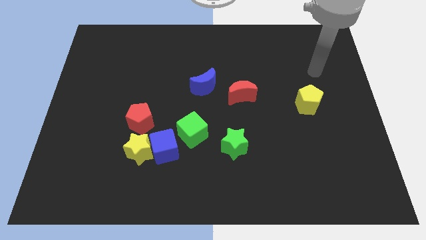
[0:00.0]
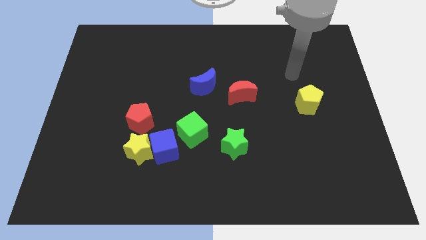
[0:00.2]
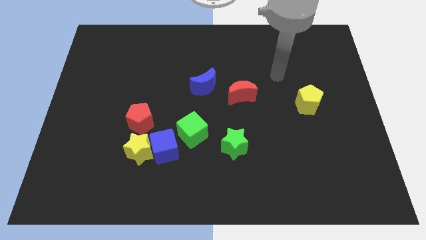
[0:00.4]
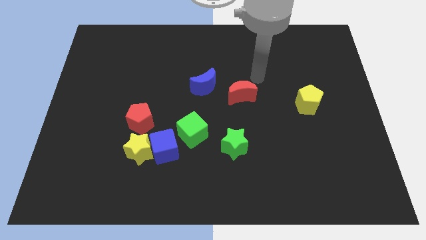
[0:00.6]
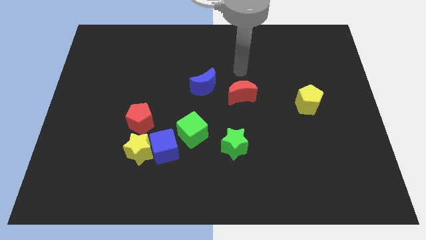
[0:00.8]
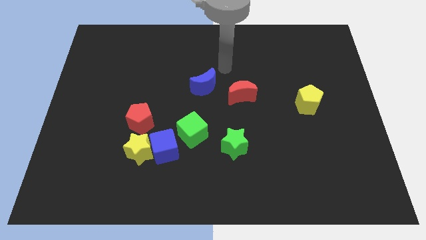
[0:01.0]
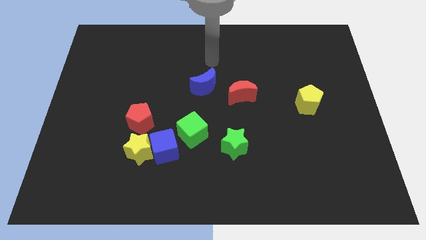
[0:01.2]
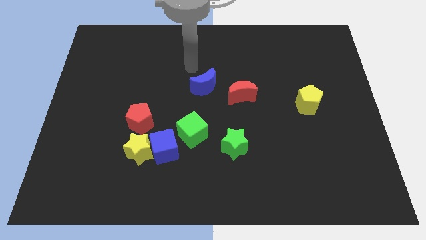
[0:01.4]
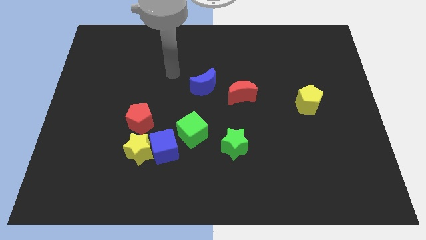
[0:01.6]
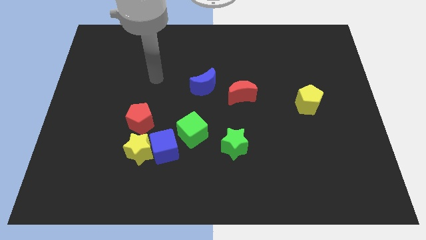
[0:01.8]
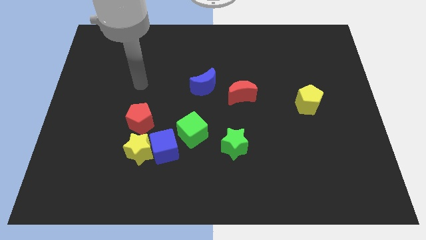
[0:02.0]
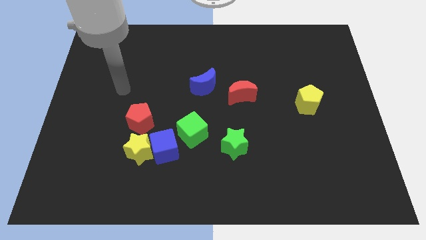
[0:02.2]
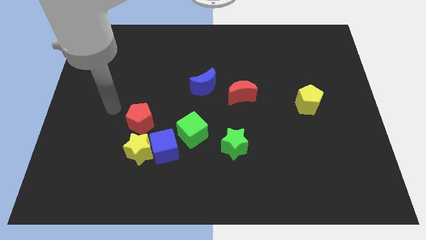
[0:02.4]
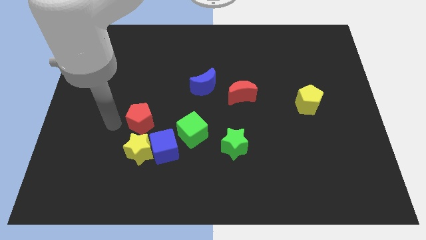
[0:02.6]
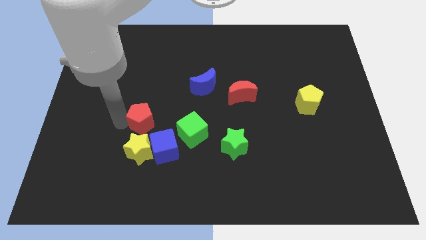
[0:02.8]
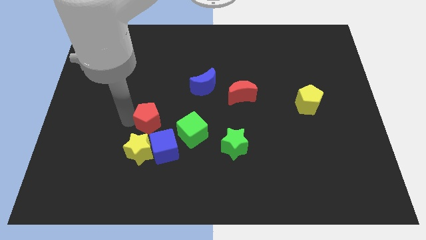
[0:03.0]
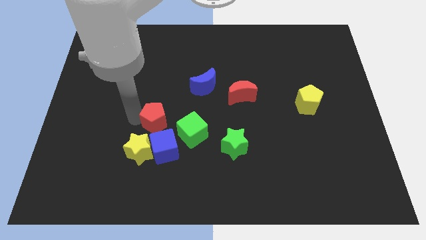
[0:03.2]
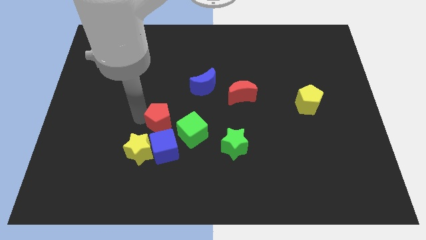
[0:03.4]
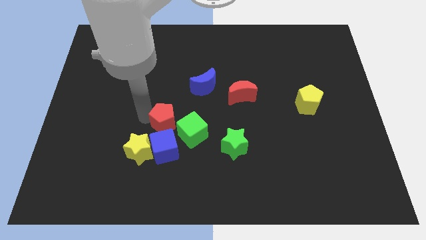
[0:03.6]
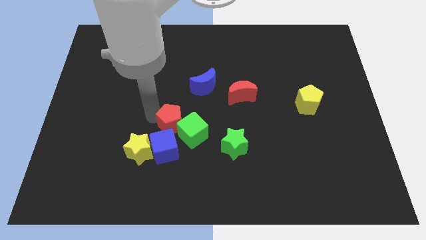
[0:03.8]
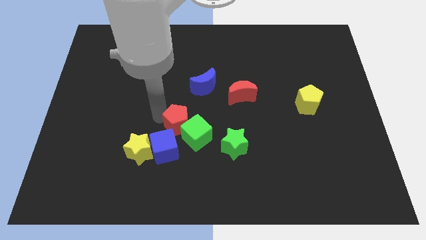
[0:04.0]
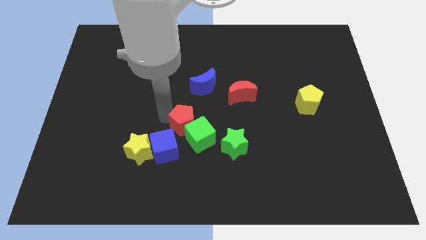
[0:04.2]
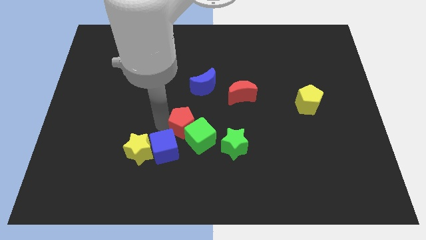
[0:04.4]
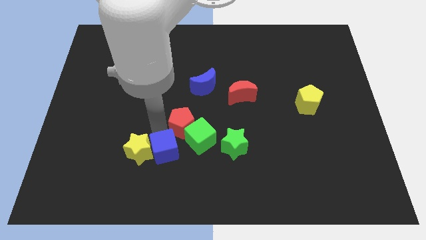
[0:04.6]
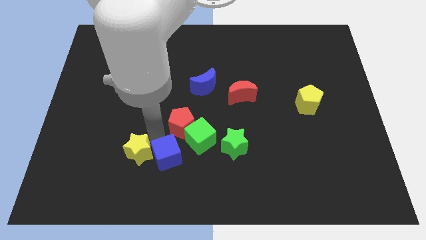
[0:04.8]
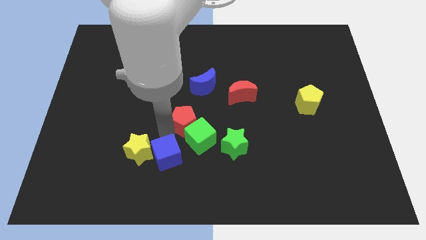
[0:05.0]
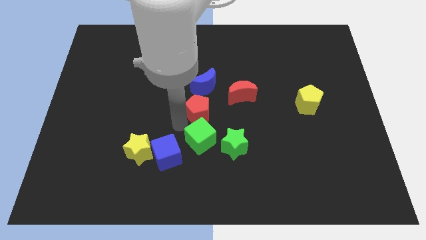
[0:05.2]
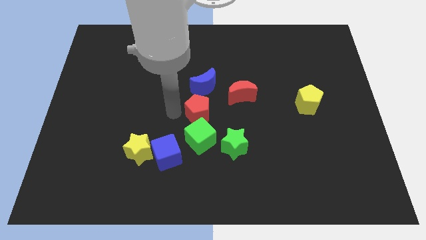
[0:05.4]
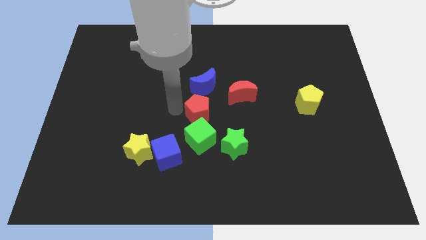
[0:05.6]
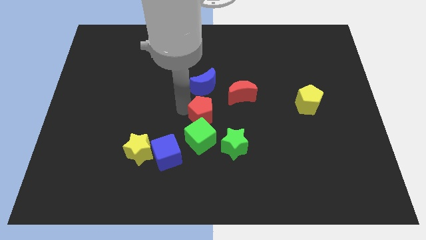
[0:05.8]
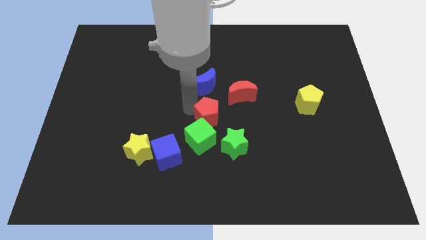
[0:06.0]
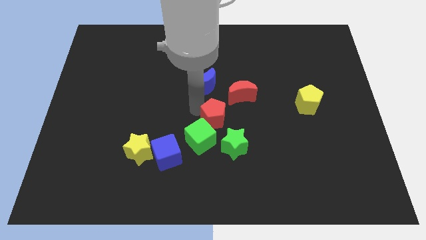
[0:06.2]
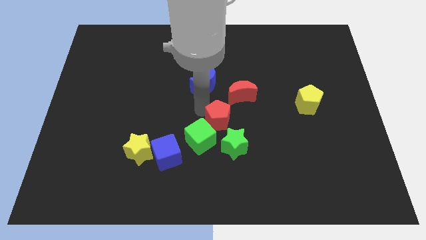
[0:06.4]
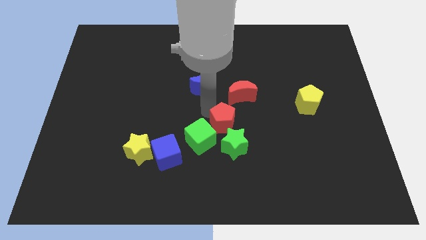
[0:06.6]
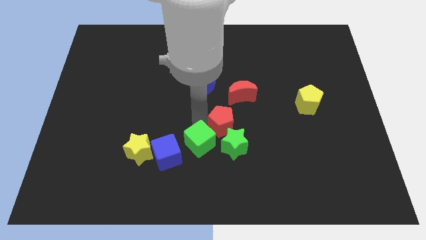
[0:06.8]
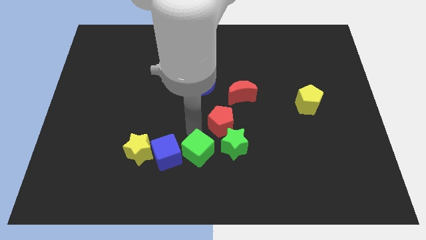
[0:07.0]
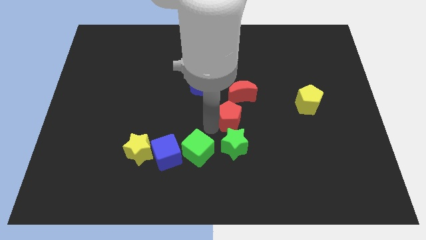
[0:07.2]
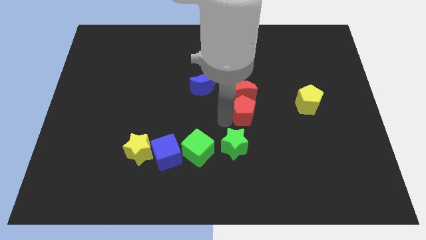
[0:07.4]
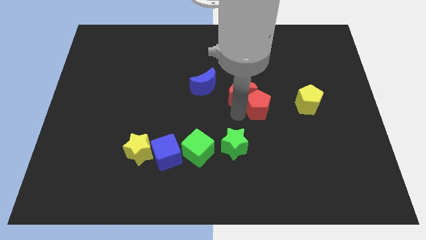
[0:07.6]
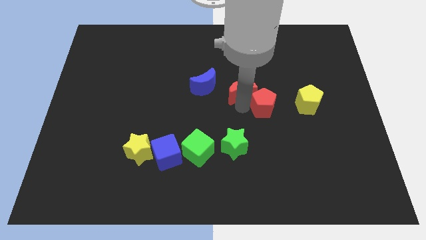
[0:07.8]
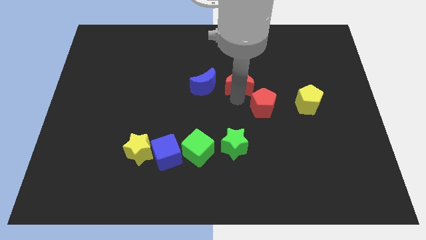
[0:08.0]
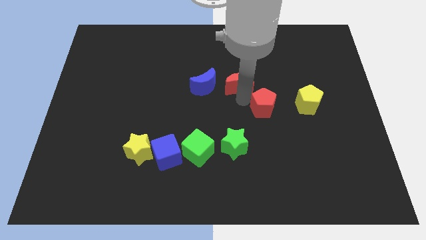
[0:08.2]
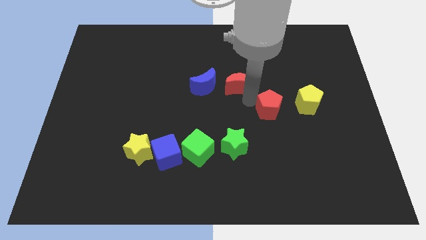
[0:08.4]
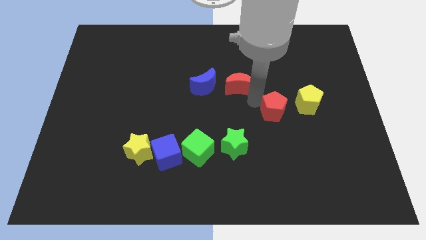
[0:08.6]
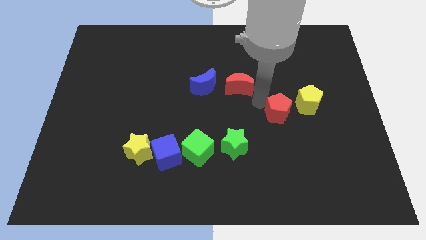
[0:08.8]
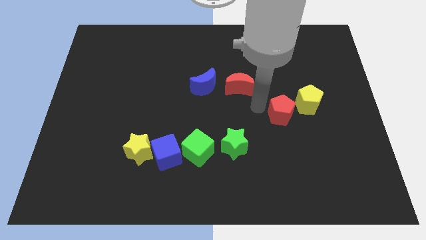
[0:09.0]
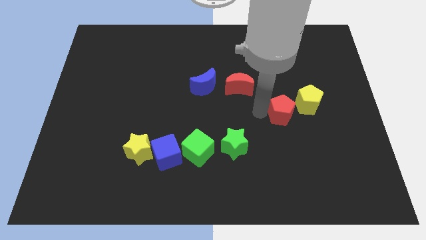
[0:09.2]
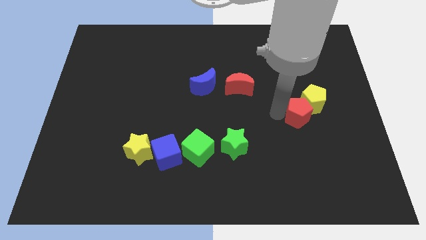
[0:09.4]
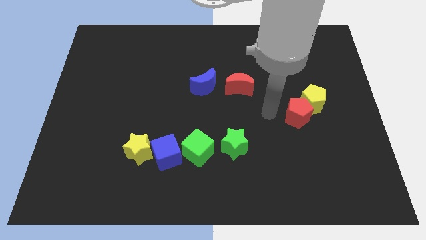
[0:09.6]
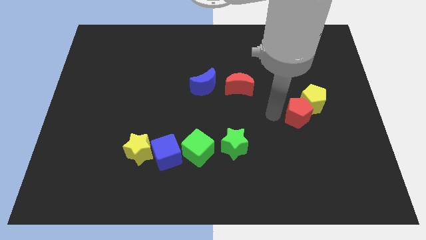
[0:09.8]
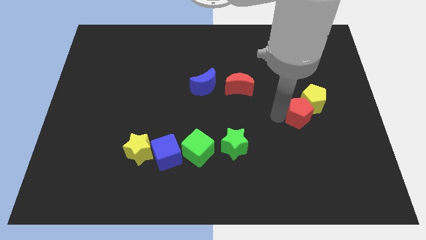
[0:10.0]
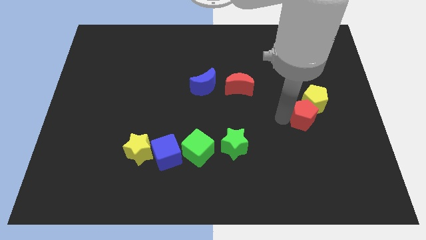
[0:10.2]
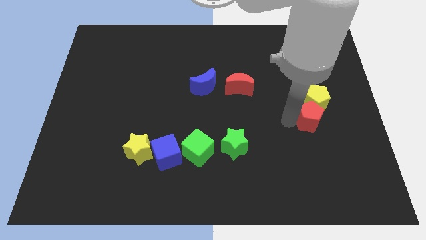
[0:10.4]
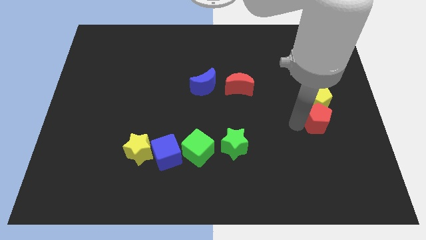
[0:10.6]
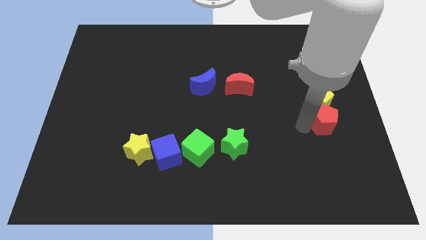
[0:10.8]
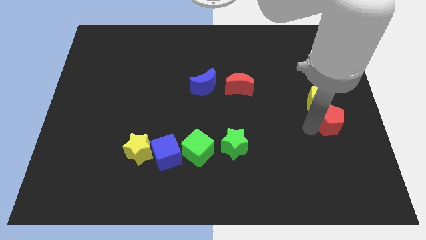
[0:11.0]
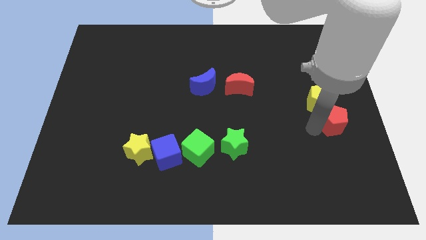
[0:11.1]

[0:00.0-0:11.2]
put the red pentagon to the right side of the board

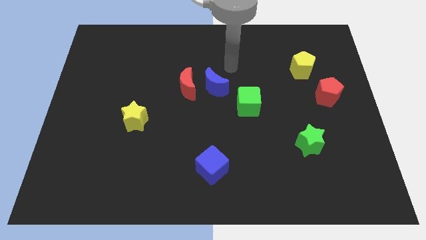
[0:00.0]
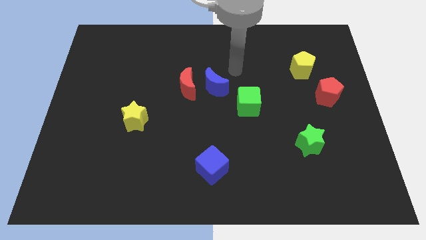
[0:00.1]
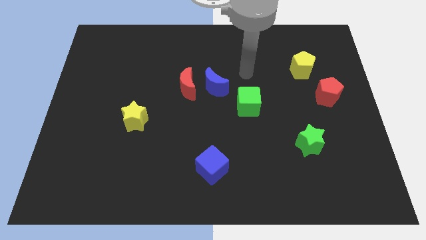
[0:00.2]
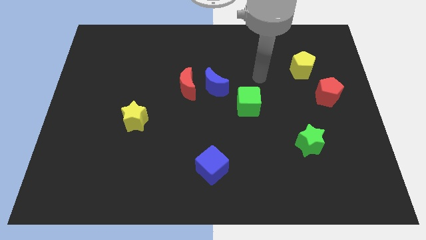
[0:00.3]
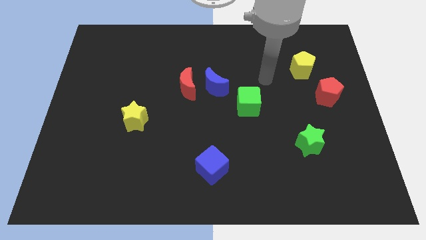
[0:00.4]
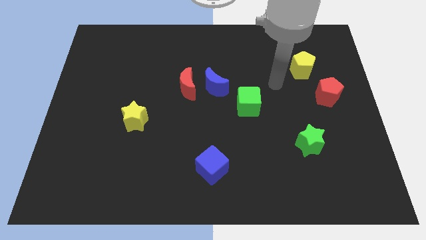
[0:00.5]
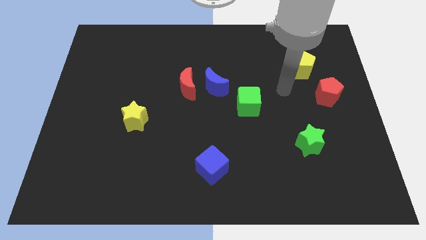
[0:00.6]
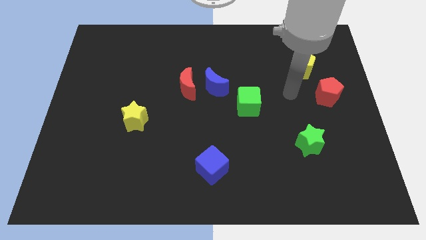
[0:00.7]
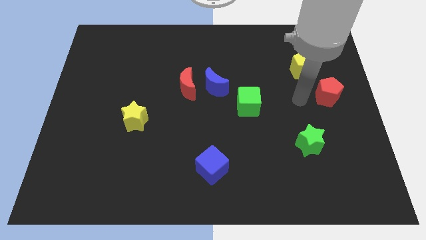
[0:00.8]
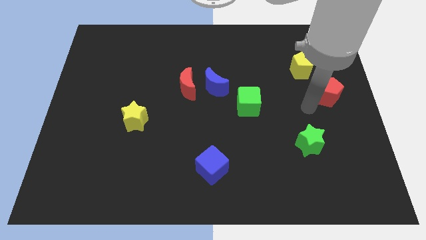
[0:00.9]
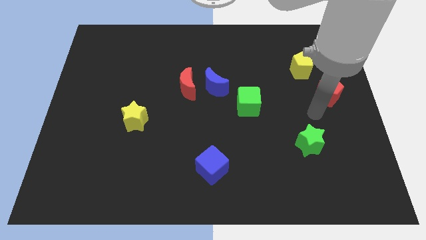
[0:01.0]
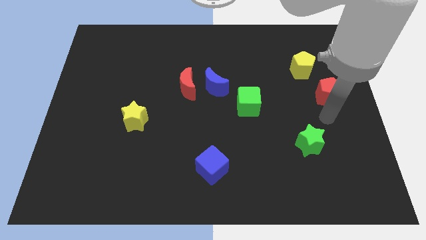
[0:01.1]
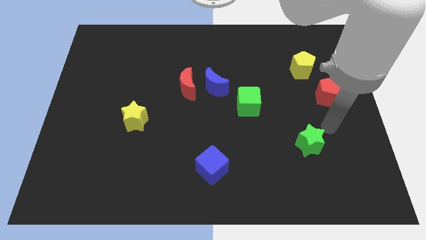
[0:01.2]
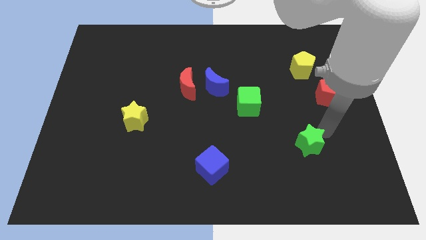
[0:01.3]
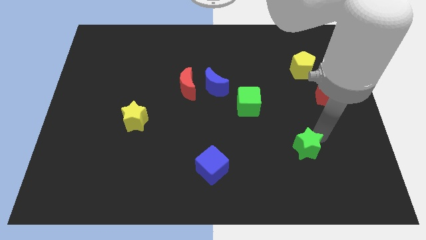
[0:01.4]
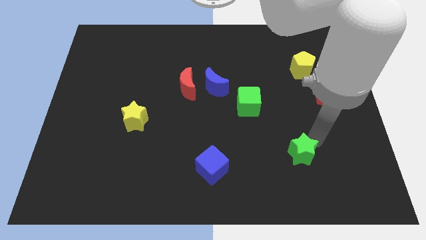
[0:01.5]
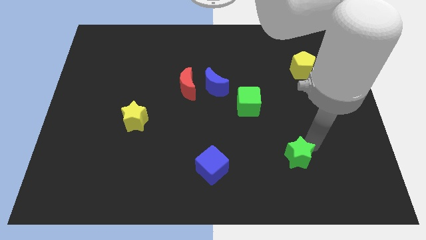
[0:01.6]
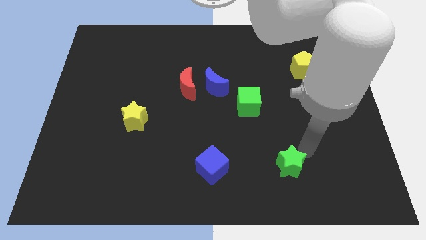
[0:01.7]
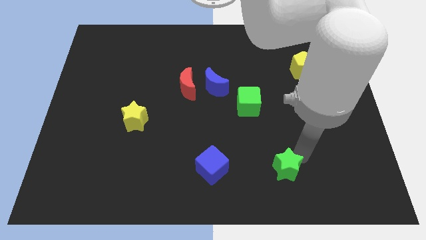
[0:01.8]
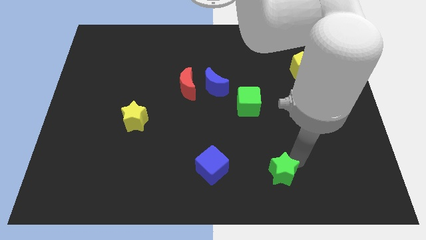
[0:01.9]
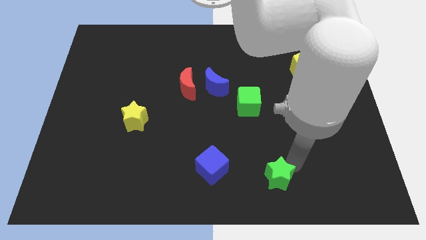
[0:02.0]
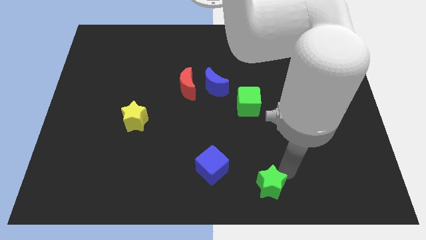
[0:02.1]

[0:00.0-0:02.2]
push the green star to the bottom

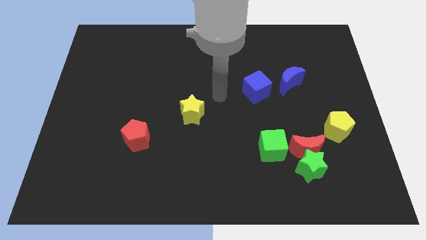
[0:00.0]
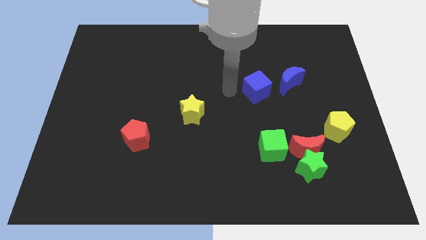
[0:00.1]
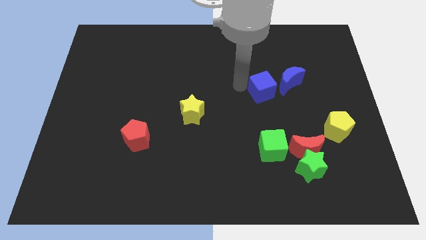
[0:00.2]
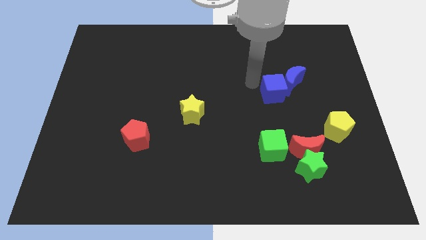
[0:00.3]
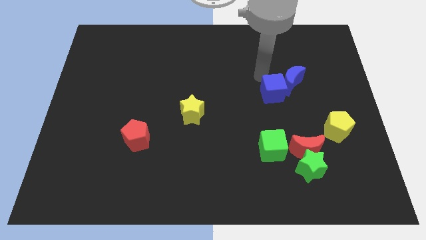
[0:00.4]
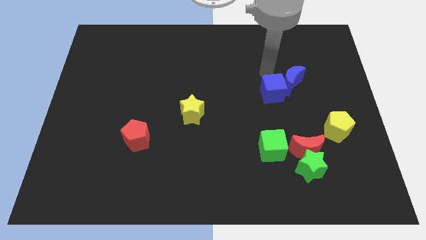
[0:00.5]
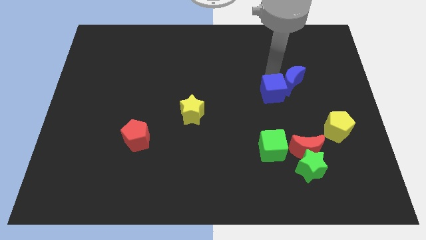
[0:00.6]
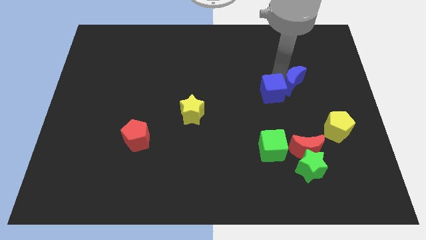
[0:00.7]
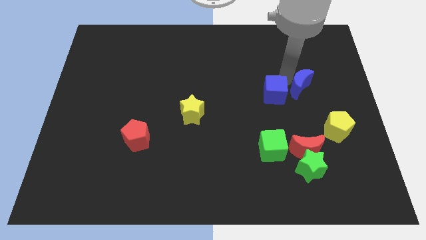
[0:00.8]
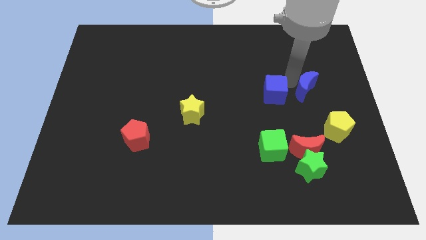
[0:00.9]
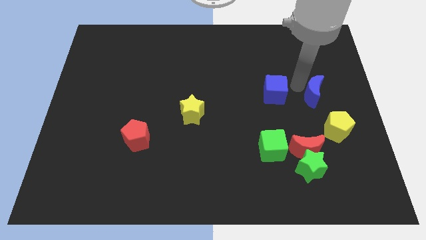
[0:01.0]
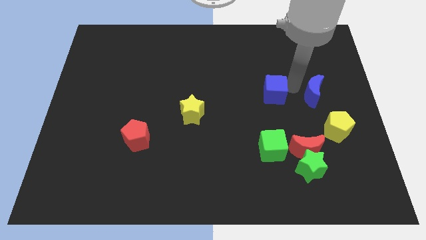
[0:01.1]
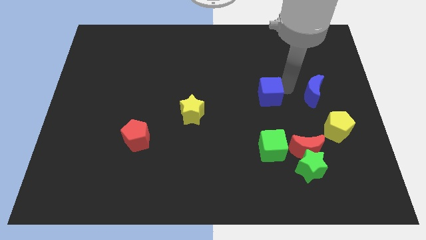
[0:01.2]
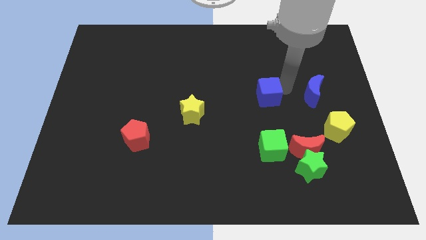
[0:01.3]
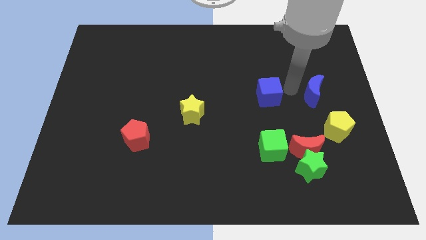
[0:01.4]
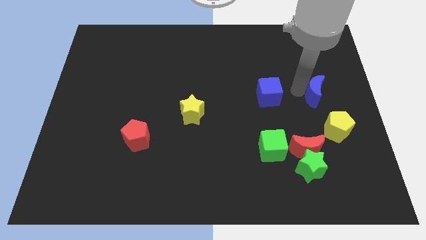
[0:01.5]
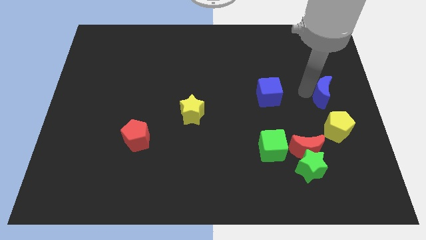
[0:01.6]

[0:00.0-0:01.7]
move the blue moon to the center right
